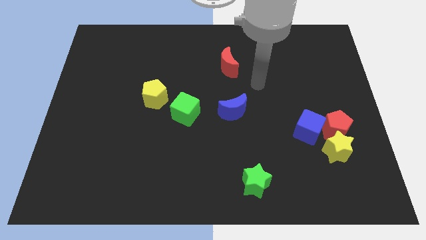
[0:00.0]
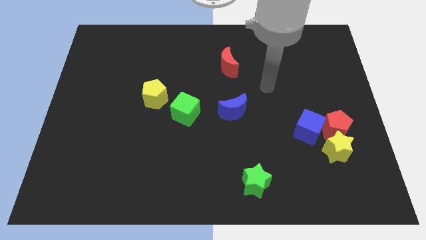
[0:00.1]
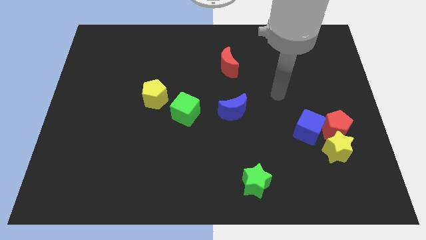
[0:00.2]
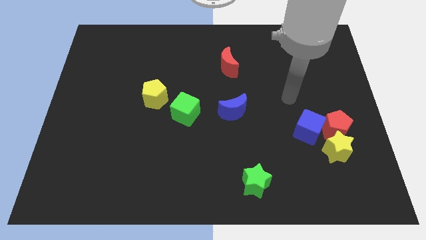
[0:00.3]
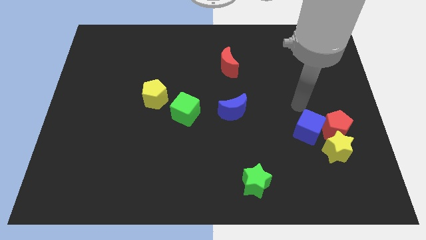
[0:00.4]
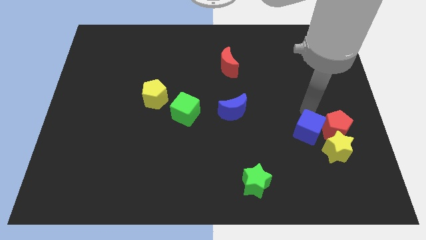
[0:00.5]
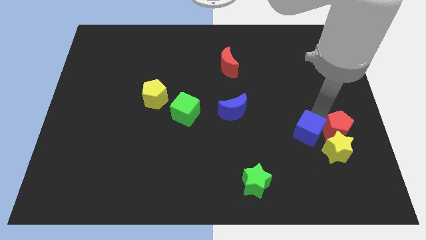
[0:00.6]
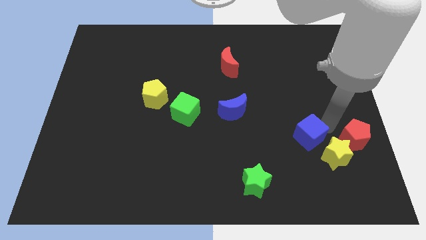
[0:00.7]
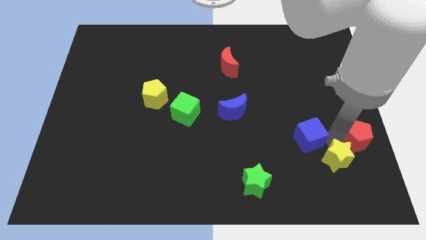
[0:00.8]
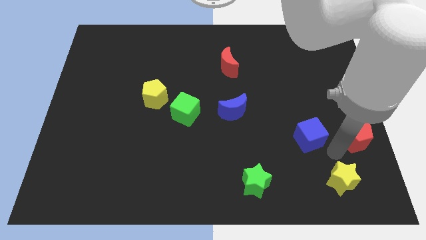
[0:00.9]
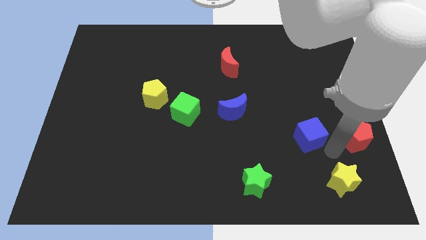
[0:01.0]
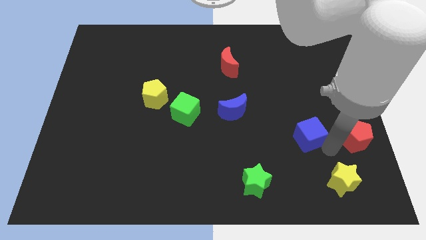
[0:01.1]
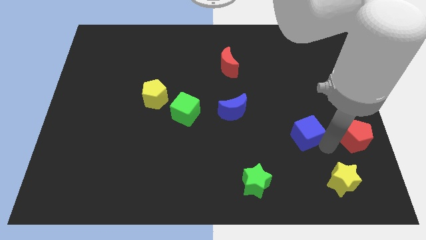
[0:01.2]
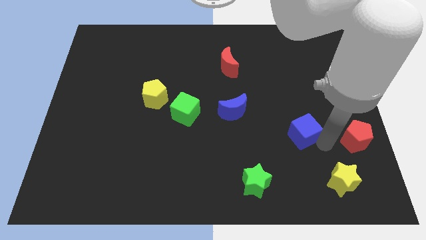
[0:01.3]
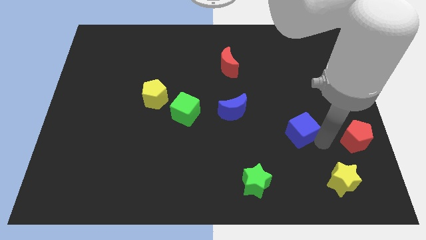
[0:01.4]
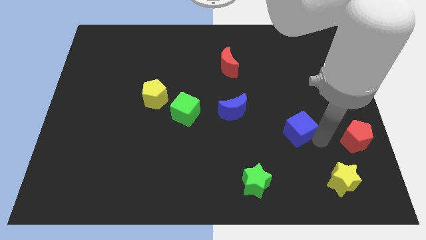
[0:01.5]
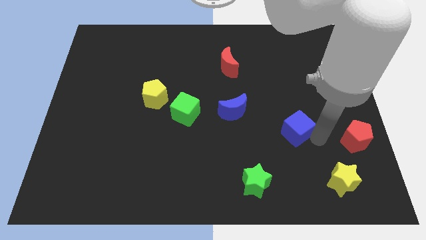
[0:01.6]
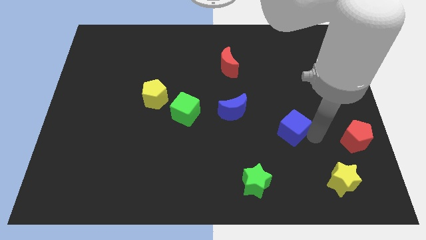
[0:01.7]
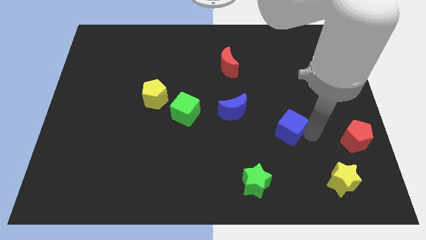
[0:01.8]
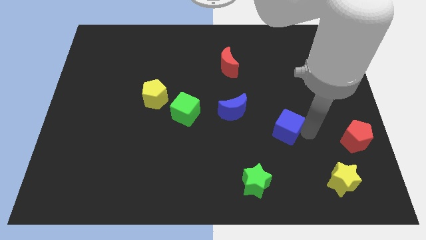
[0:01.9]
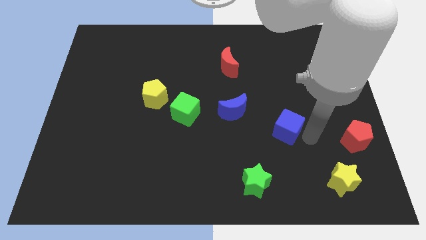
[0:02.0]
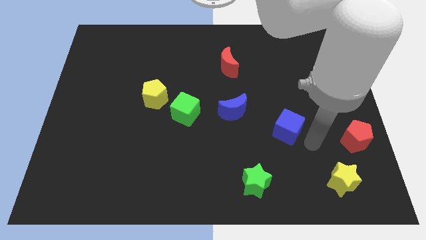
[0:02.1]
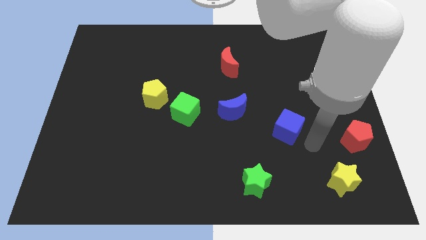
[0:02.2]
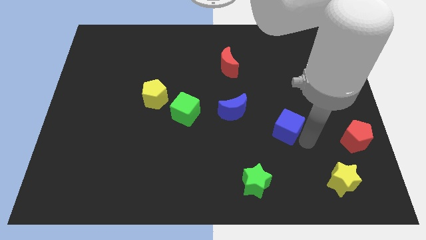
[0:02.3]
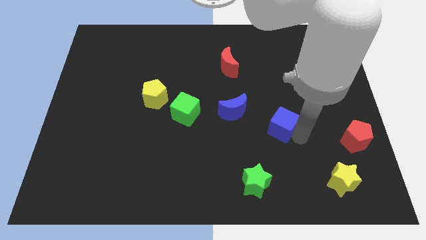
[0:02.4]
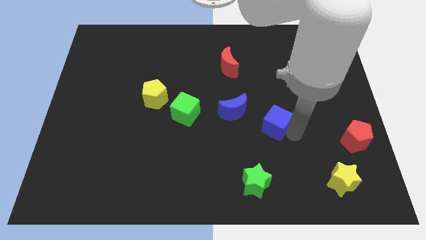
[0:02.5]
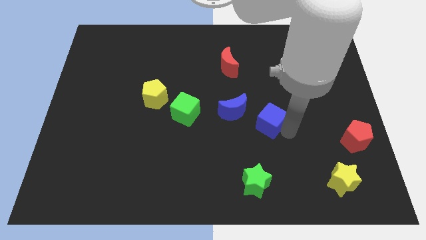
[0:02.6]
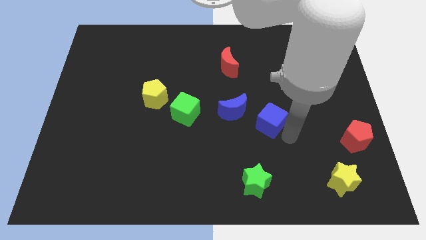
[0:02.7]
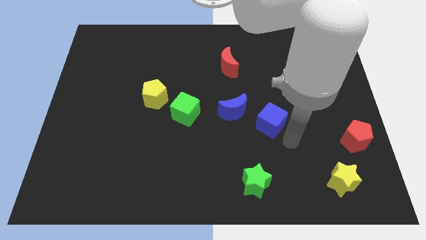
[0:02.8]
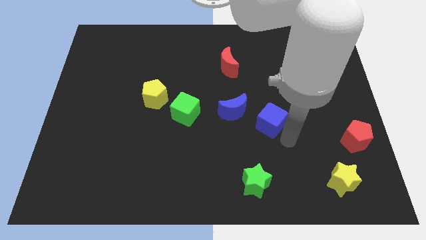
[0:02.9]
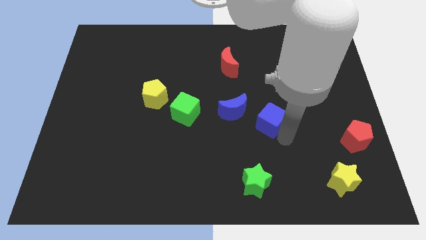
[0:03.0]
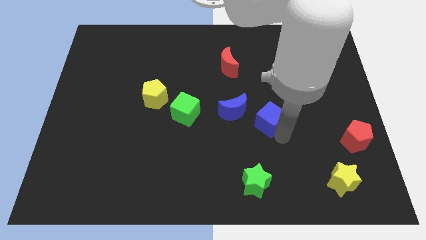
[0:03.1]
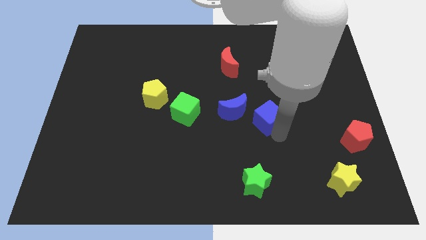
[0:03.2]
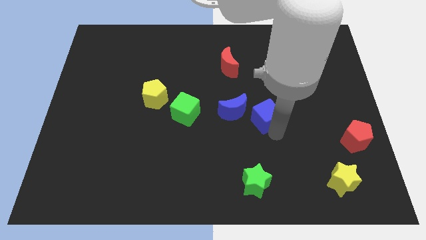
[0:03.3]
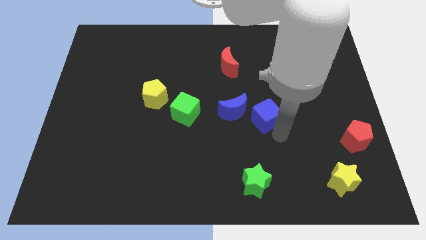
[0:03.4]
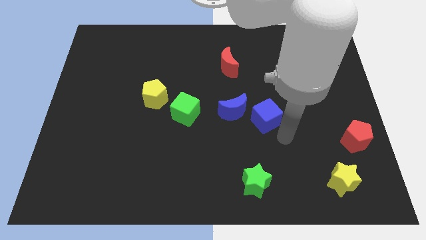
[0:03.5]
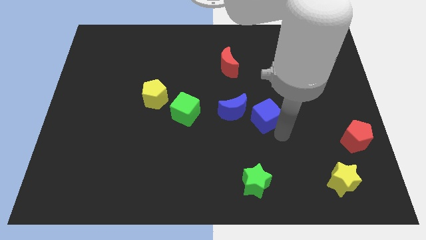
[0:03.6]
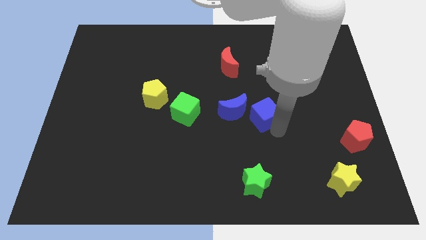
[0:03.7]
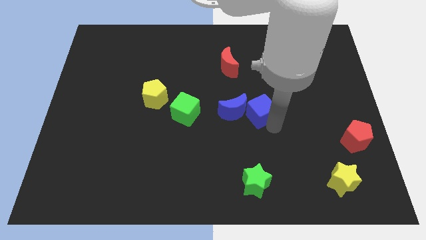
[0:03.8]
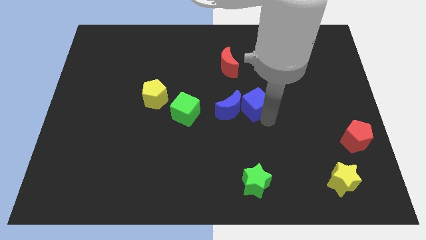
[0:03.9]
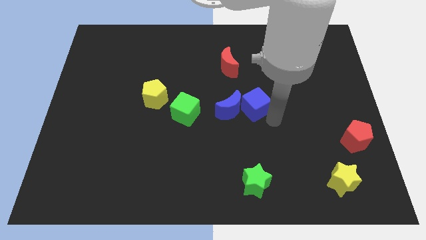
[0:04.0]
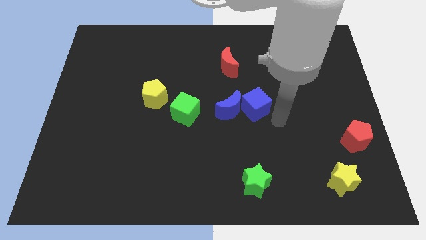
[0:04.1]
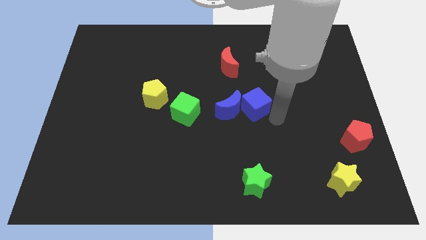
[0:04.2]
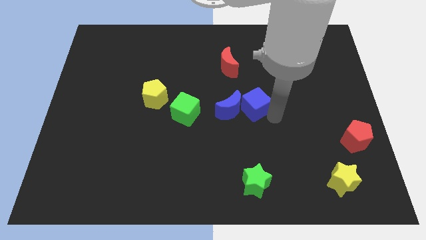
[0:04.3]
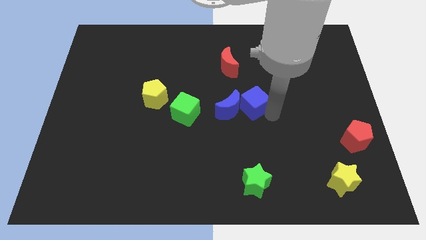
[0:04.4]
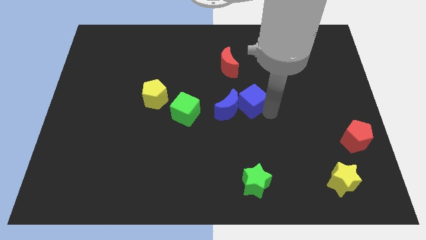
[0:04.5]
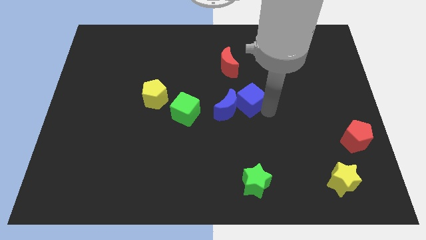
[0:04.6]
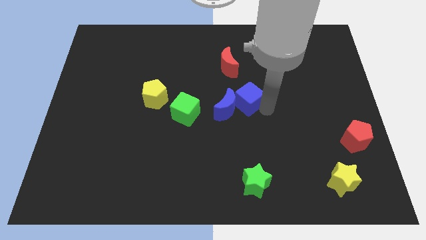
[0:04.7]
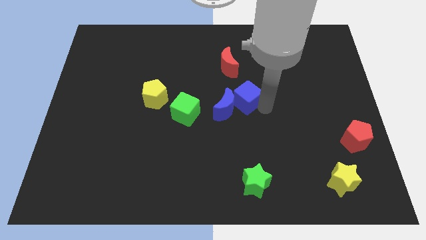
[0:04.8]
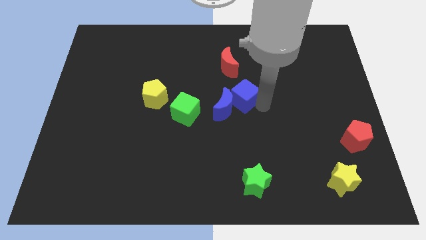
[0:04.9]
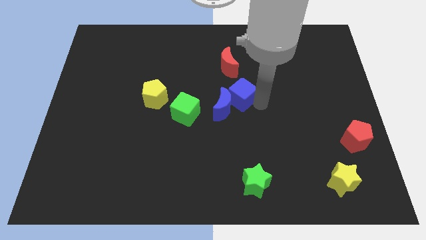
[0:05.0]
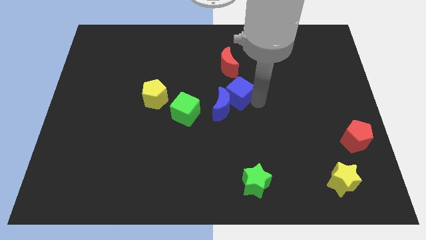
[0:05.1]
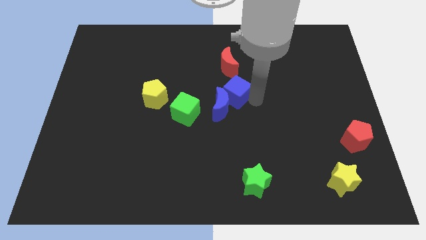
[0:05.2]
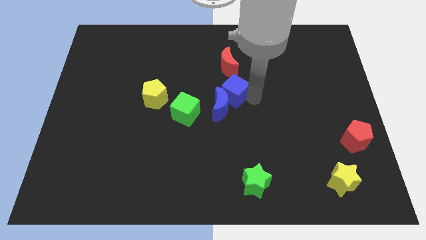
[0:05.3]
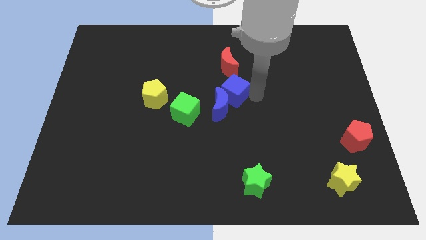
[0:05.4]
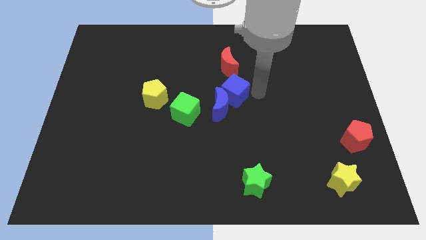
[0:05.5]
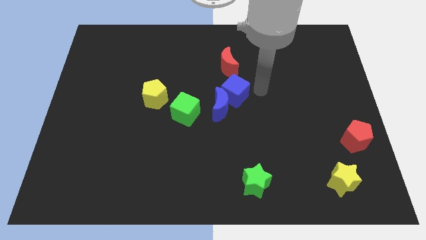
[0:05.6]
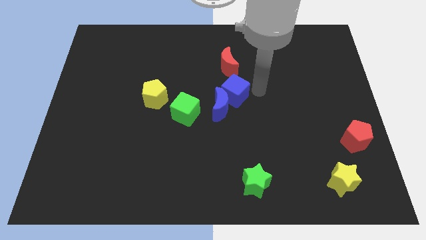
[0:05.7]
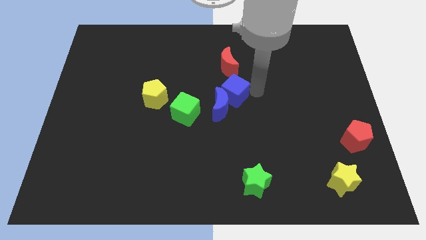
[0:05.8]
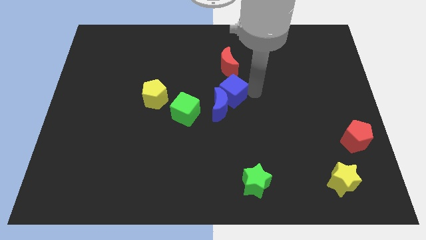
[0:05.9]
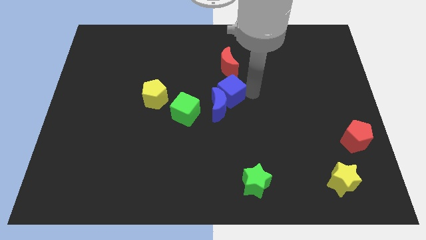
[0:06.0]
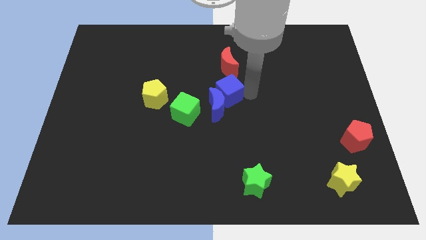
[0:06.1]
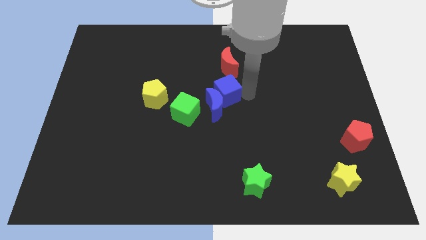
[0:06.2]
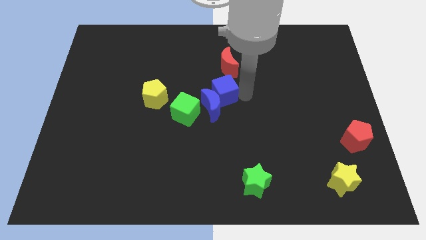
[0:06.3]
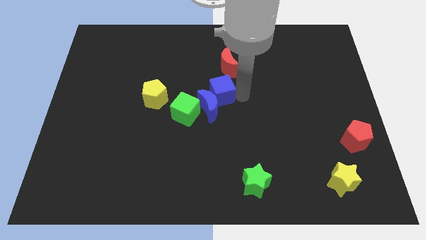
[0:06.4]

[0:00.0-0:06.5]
put the blue cube just right of the yellow pentagon

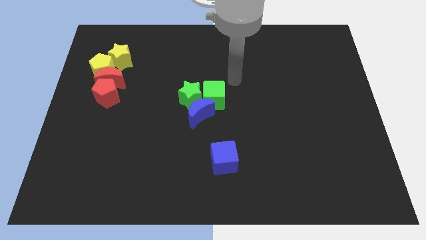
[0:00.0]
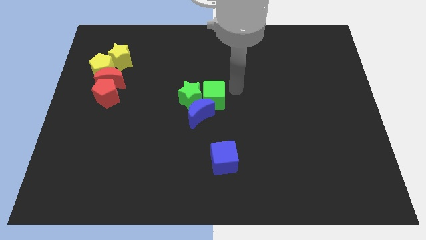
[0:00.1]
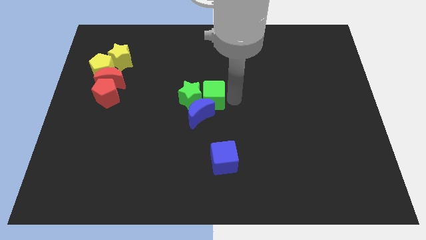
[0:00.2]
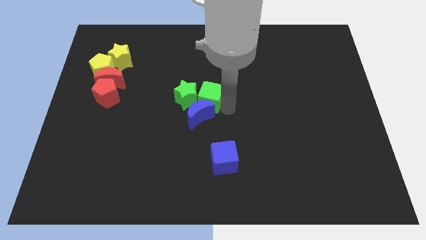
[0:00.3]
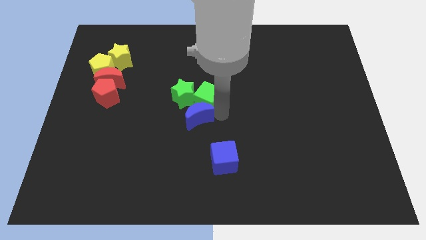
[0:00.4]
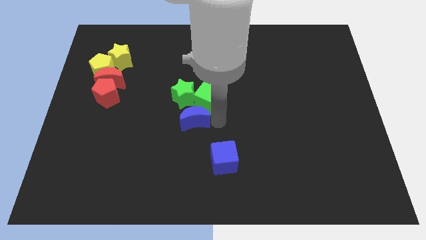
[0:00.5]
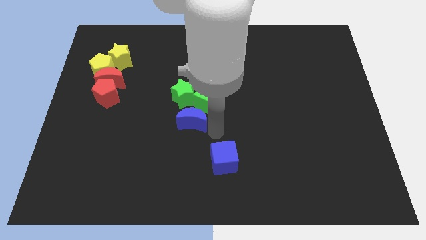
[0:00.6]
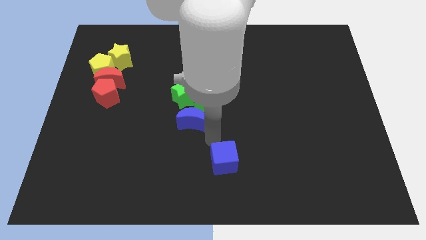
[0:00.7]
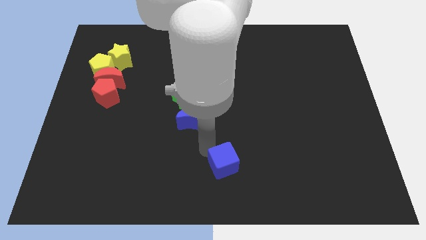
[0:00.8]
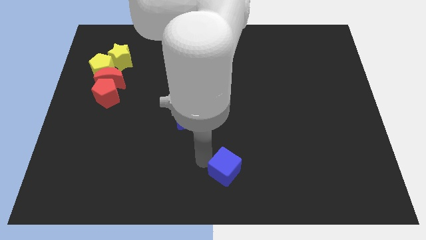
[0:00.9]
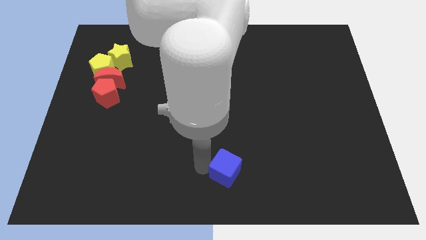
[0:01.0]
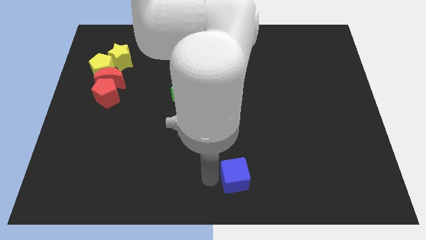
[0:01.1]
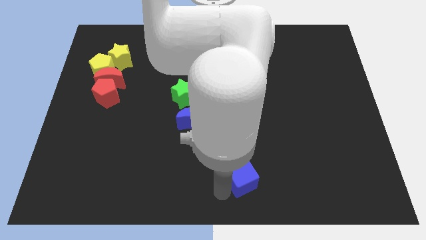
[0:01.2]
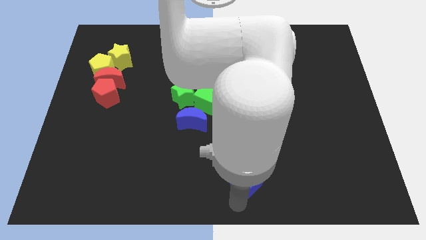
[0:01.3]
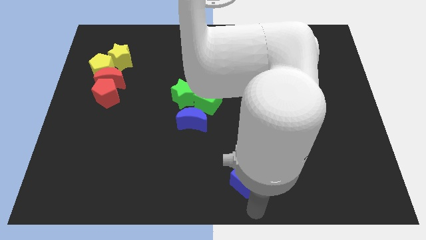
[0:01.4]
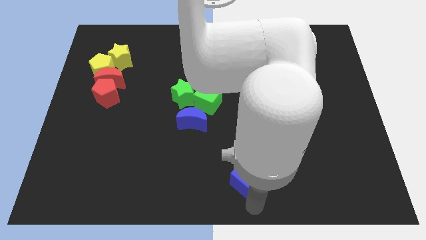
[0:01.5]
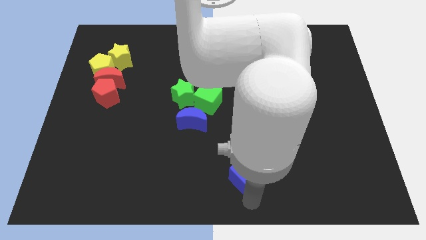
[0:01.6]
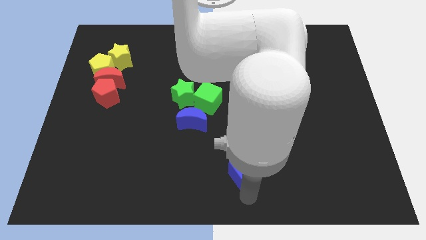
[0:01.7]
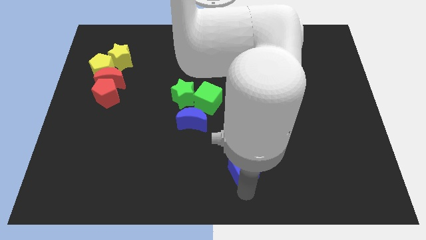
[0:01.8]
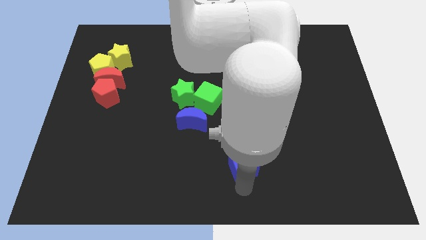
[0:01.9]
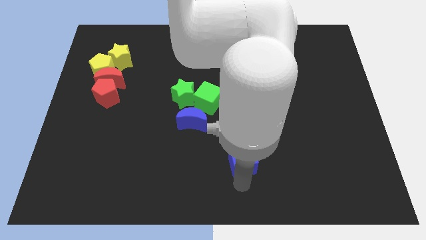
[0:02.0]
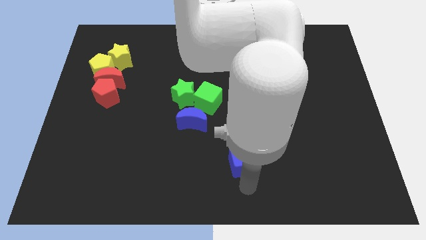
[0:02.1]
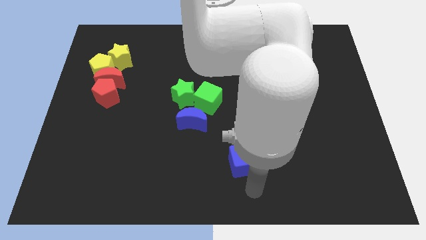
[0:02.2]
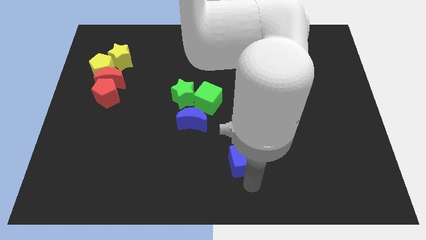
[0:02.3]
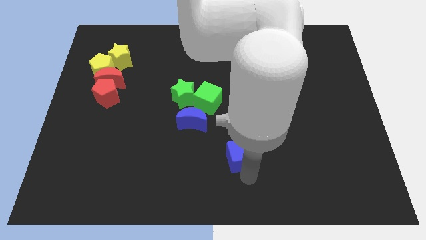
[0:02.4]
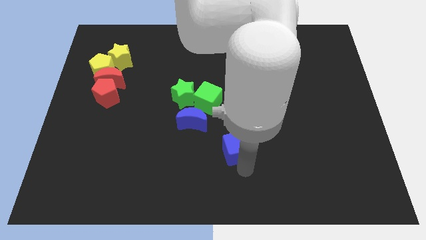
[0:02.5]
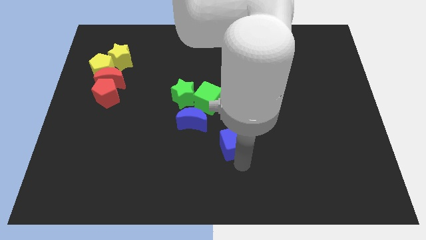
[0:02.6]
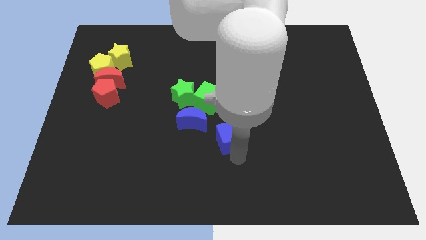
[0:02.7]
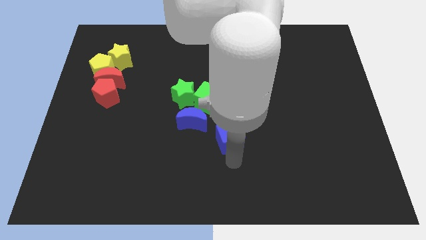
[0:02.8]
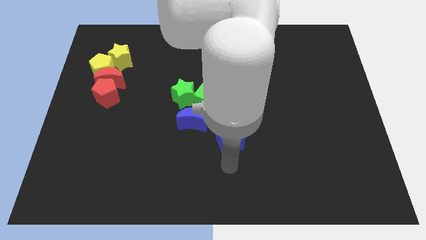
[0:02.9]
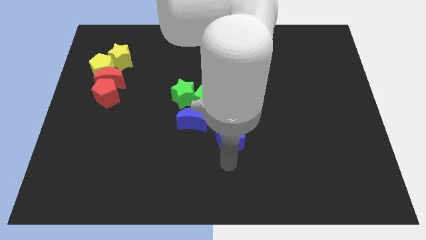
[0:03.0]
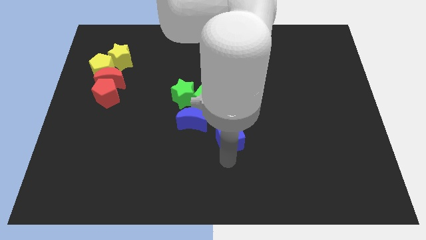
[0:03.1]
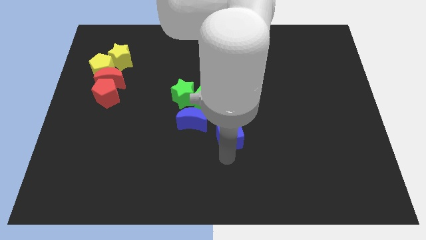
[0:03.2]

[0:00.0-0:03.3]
slide the blue cube to the bottom right side of the green cube
